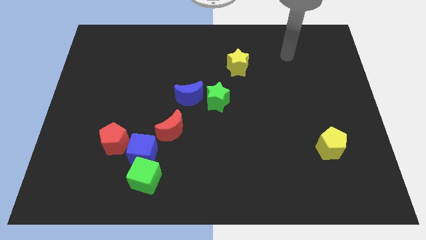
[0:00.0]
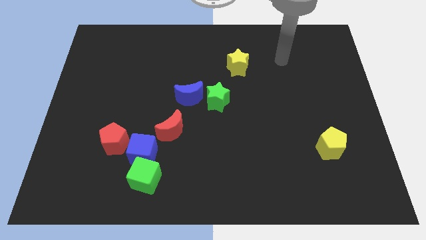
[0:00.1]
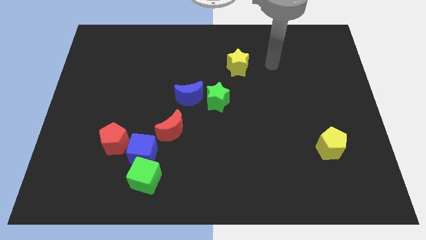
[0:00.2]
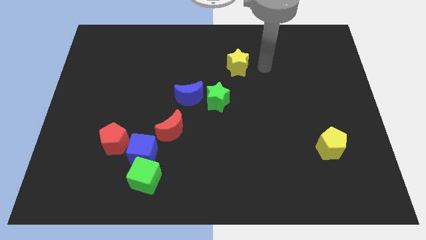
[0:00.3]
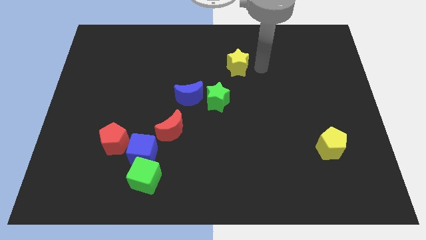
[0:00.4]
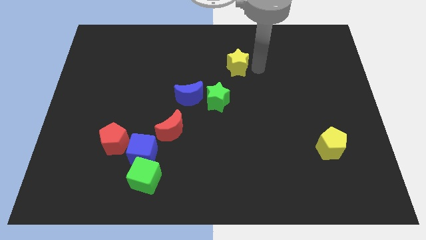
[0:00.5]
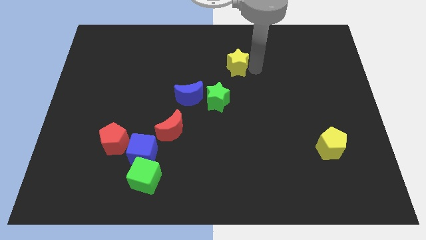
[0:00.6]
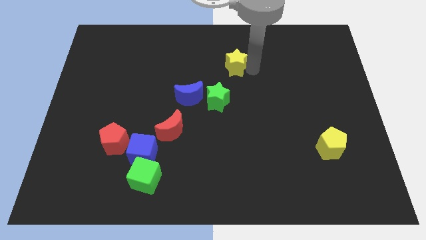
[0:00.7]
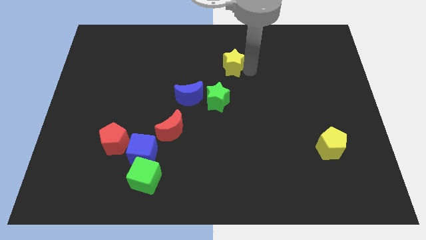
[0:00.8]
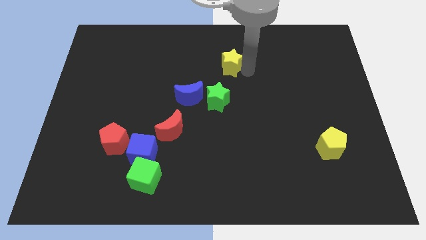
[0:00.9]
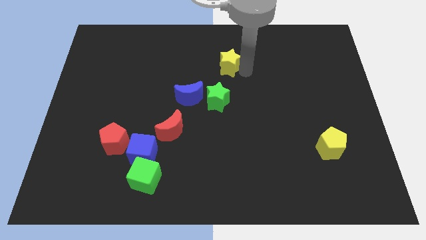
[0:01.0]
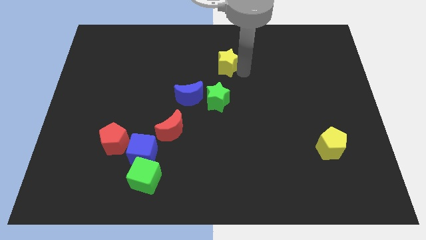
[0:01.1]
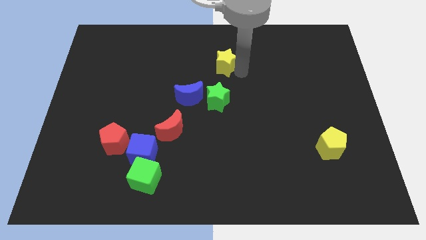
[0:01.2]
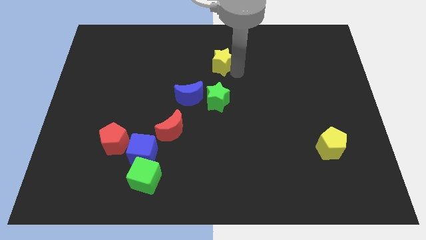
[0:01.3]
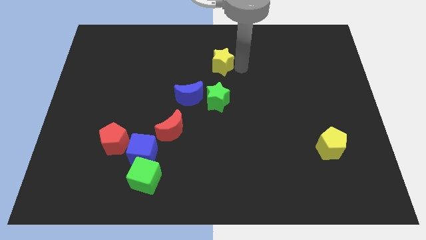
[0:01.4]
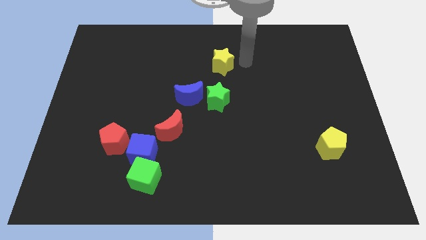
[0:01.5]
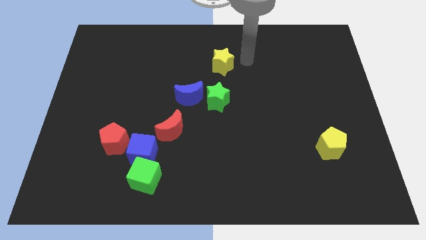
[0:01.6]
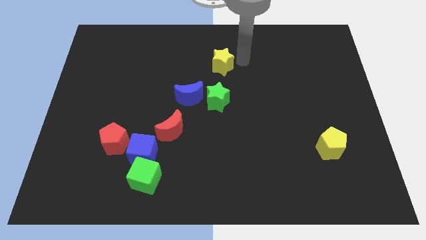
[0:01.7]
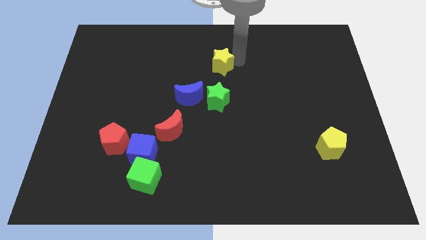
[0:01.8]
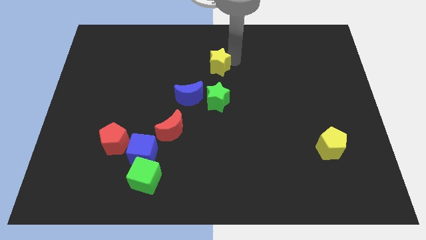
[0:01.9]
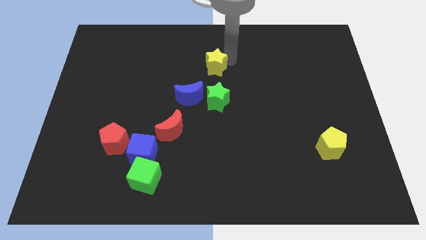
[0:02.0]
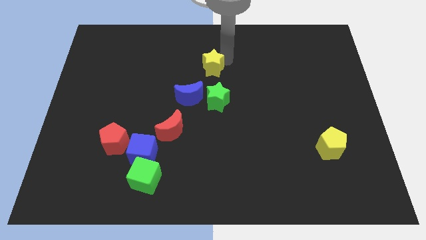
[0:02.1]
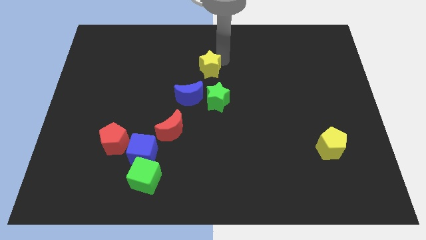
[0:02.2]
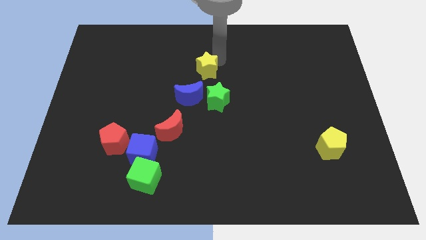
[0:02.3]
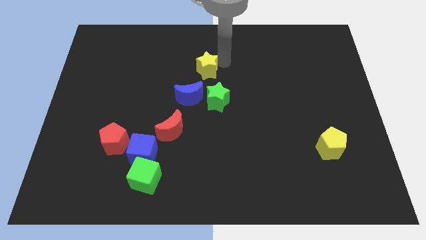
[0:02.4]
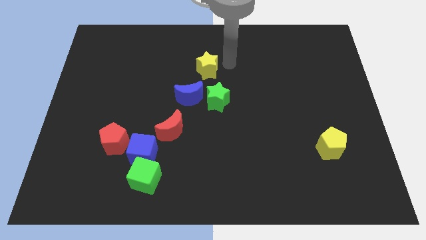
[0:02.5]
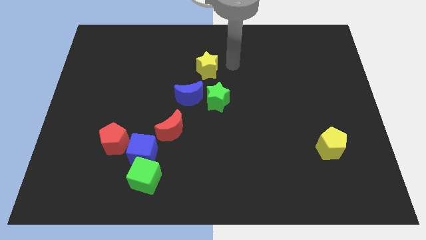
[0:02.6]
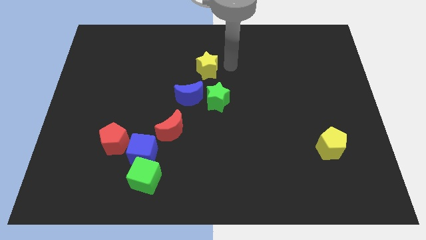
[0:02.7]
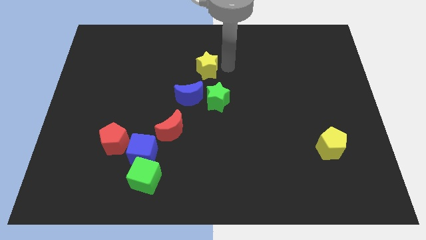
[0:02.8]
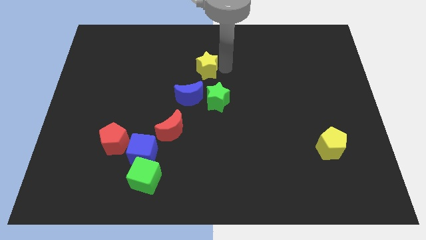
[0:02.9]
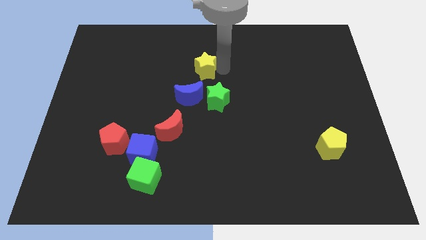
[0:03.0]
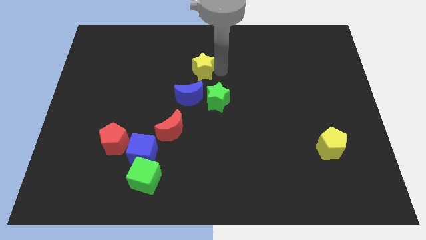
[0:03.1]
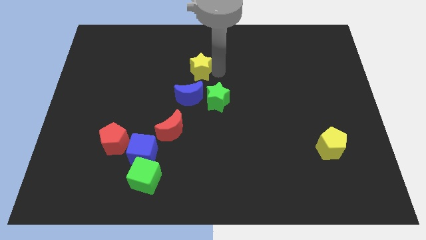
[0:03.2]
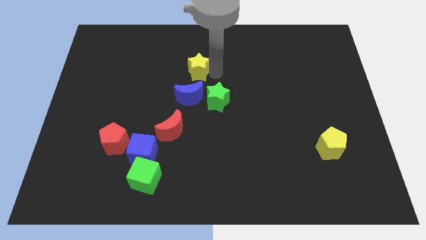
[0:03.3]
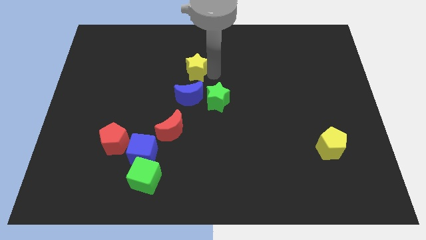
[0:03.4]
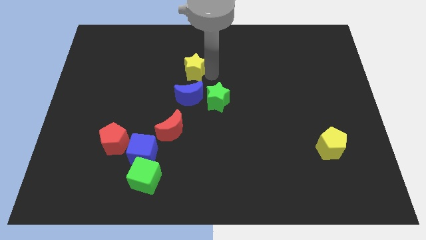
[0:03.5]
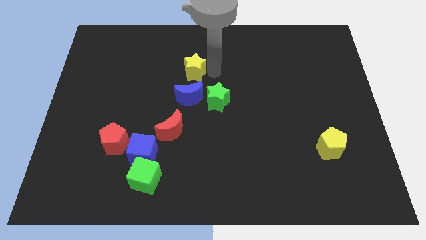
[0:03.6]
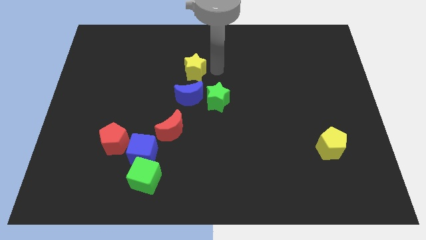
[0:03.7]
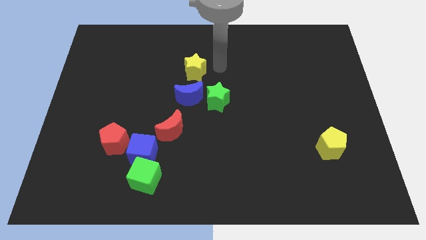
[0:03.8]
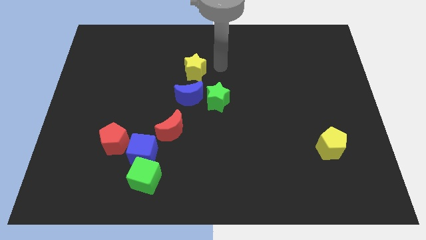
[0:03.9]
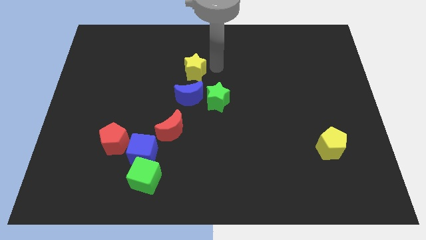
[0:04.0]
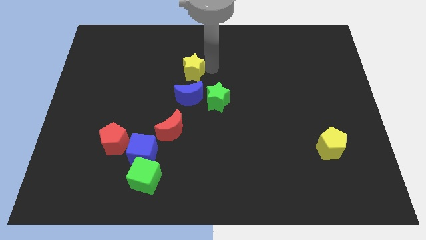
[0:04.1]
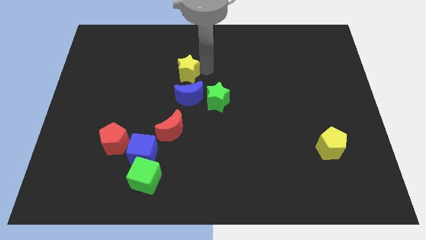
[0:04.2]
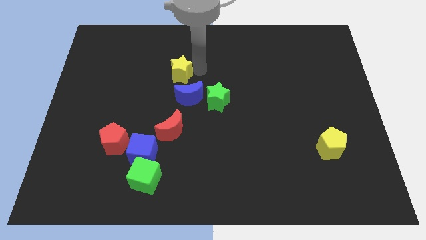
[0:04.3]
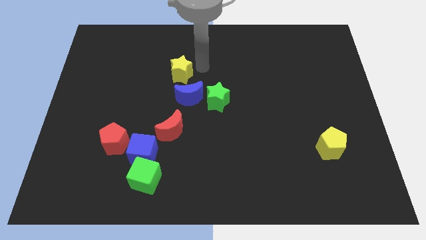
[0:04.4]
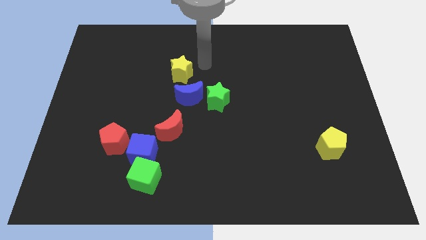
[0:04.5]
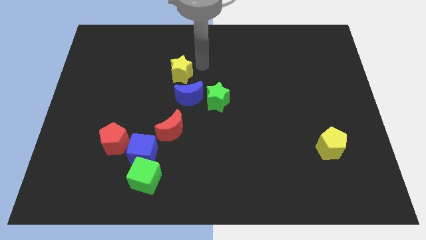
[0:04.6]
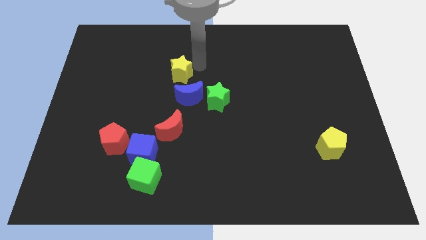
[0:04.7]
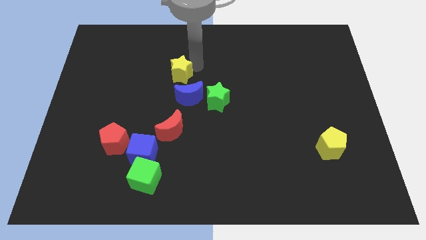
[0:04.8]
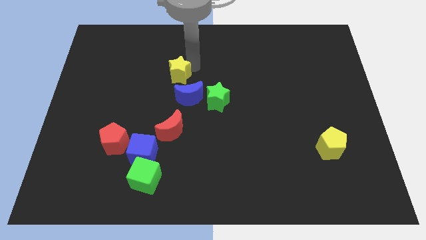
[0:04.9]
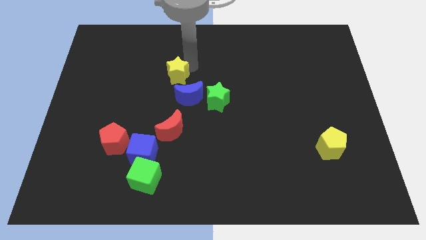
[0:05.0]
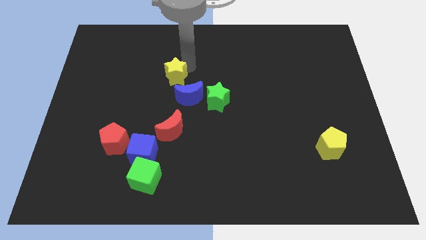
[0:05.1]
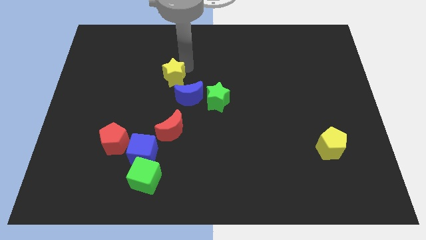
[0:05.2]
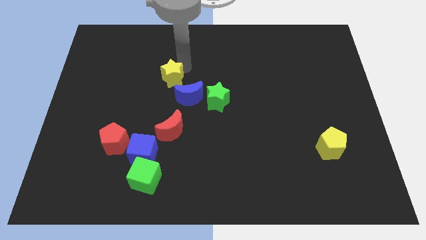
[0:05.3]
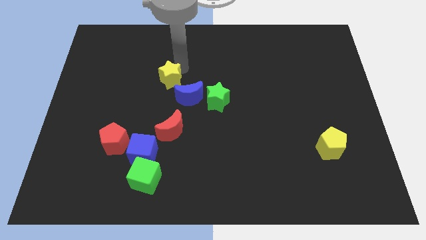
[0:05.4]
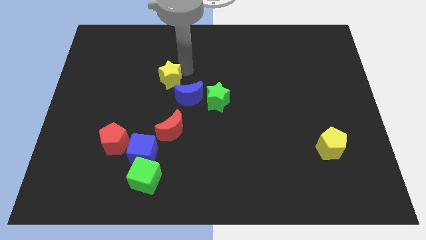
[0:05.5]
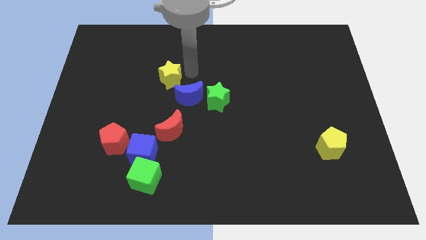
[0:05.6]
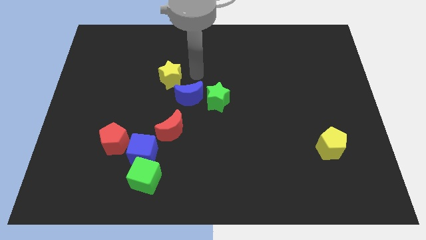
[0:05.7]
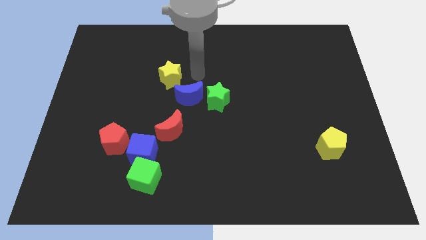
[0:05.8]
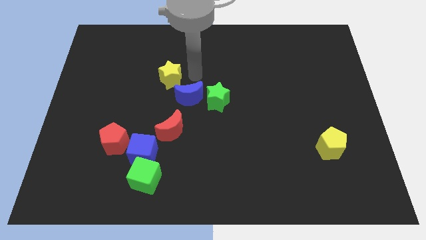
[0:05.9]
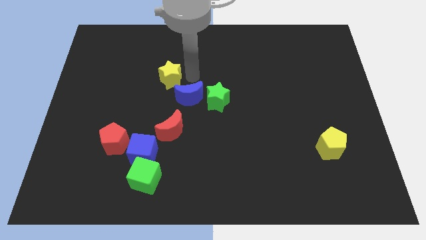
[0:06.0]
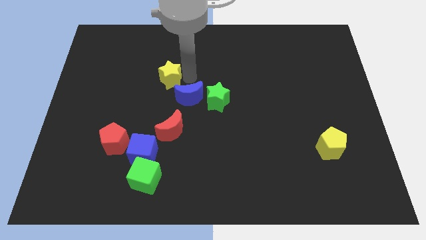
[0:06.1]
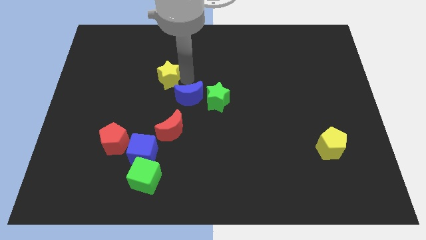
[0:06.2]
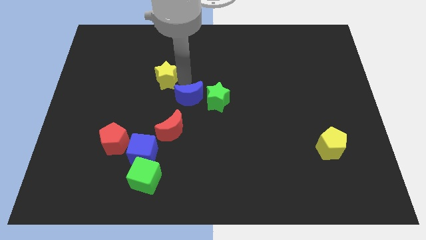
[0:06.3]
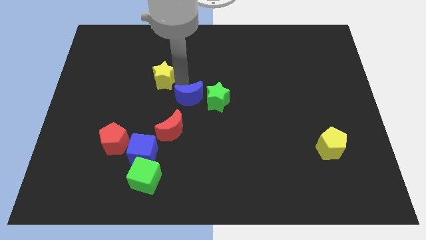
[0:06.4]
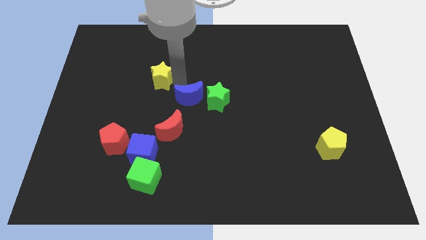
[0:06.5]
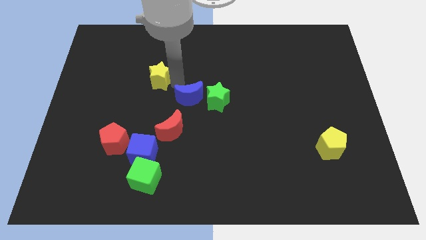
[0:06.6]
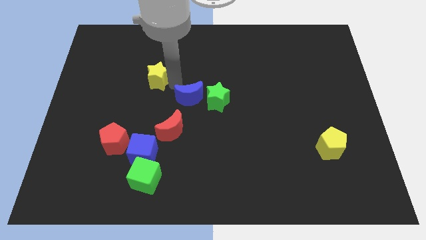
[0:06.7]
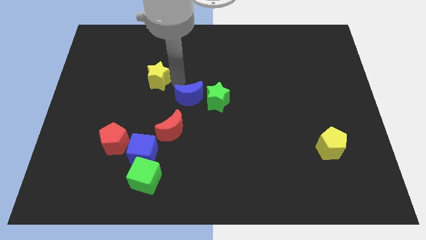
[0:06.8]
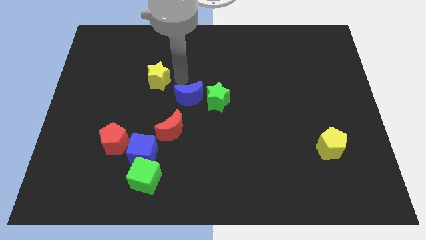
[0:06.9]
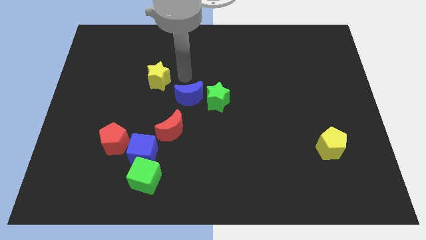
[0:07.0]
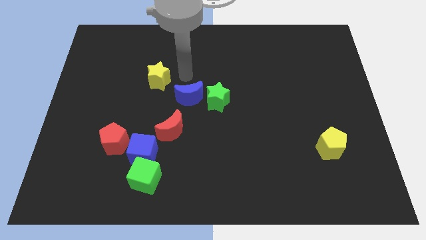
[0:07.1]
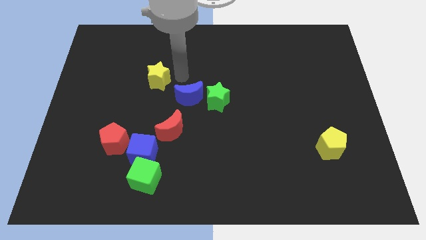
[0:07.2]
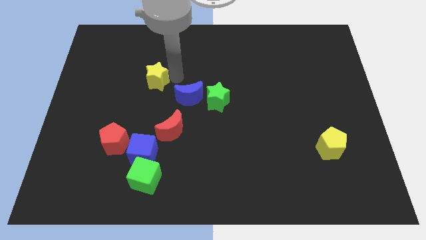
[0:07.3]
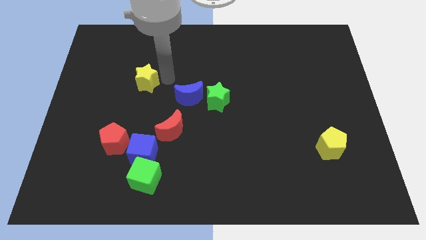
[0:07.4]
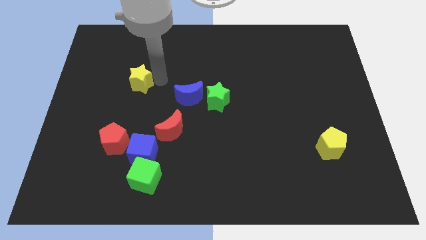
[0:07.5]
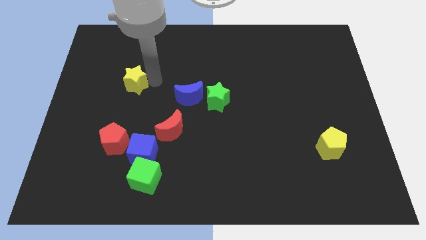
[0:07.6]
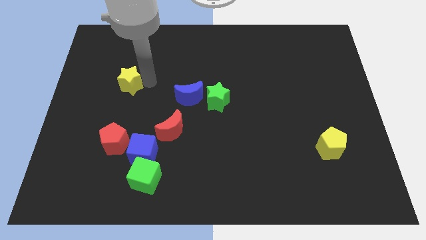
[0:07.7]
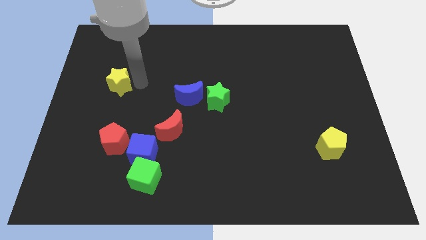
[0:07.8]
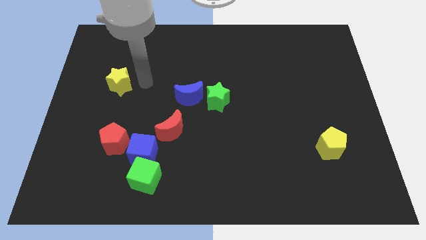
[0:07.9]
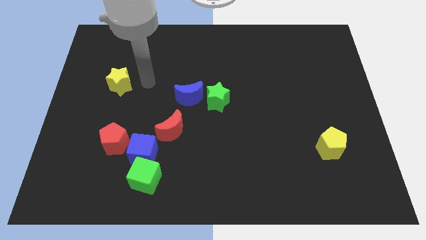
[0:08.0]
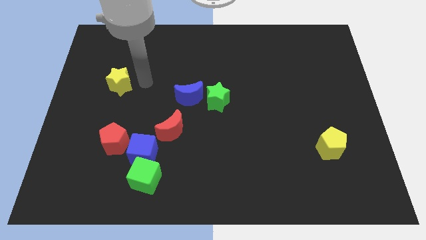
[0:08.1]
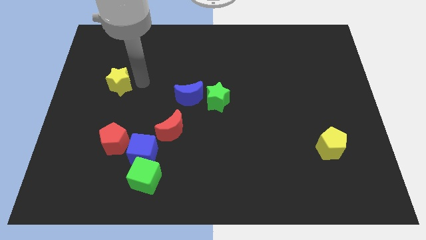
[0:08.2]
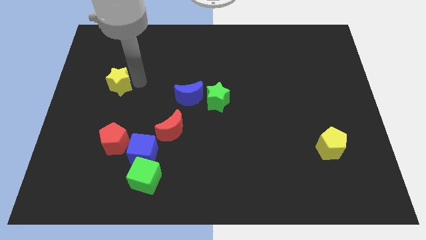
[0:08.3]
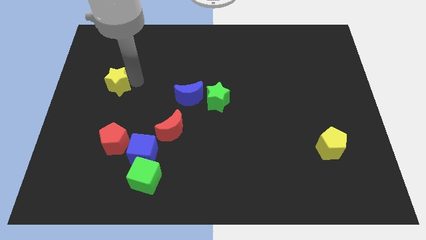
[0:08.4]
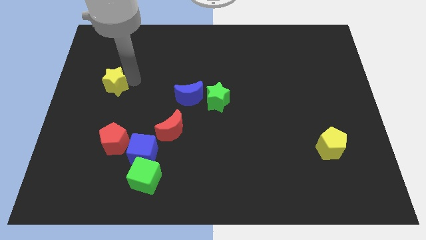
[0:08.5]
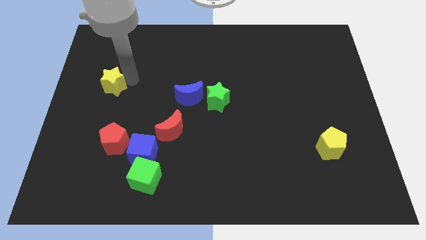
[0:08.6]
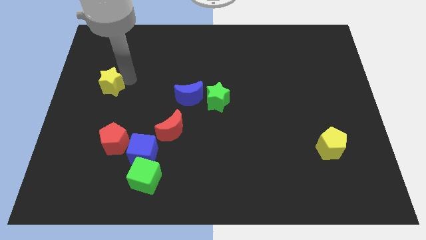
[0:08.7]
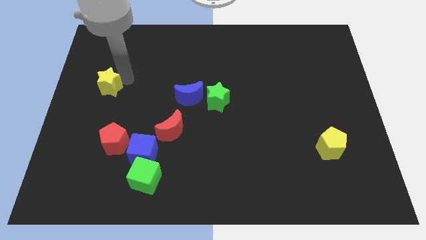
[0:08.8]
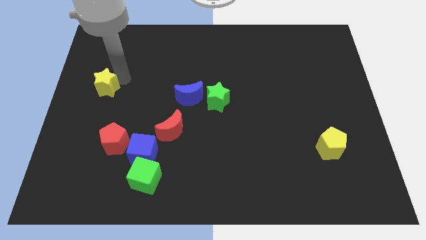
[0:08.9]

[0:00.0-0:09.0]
slide the yellow star to the left side of the board
